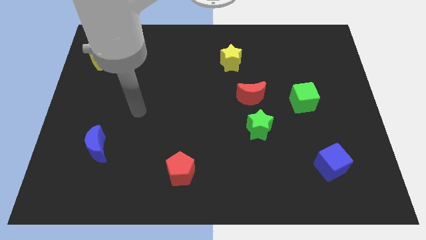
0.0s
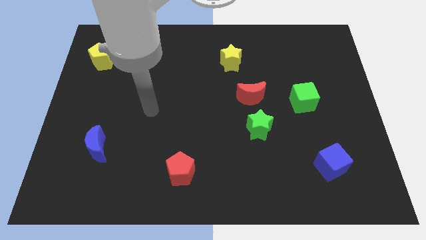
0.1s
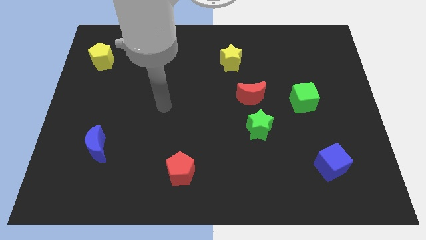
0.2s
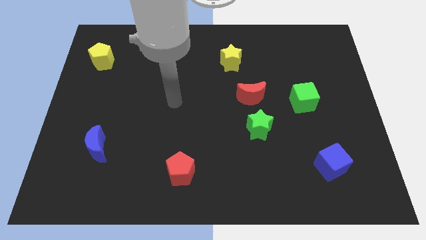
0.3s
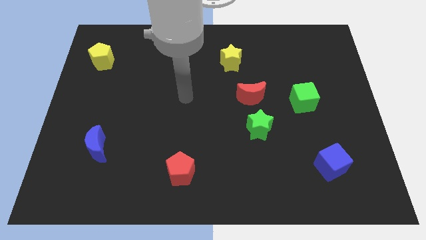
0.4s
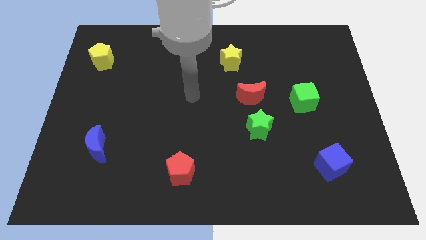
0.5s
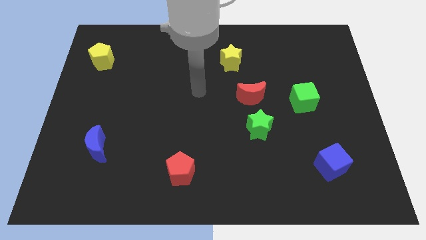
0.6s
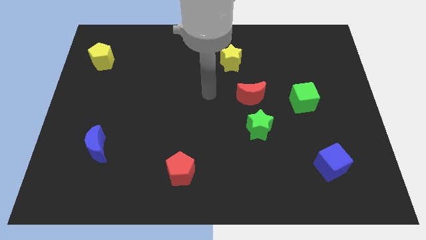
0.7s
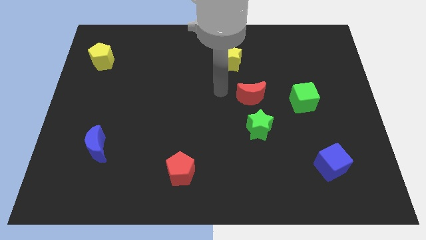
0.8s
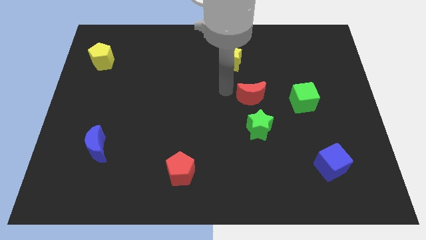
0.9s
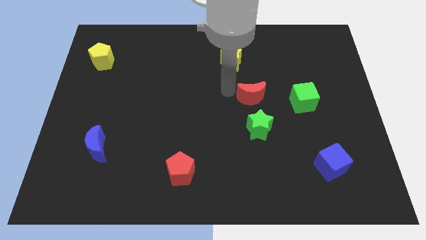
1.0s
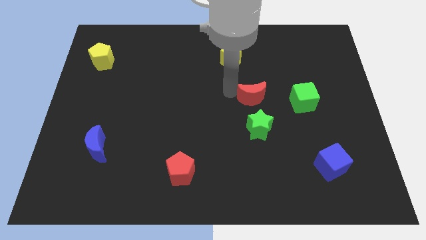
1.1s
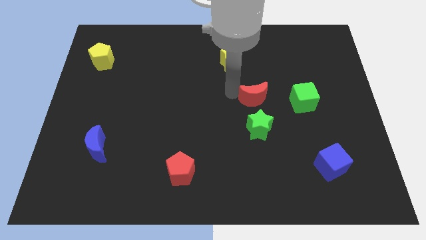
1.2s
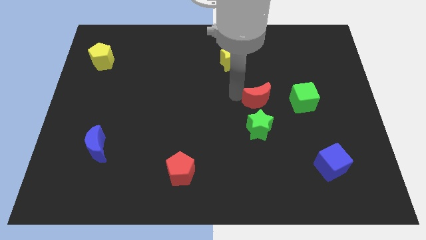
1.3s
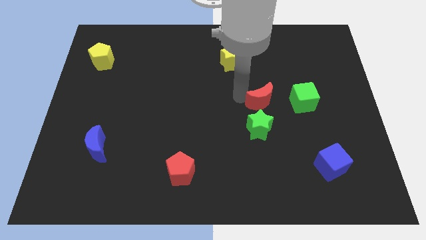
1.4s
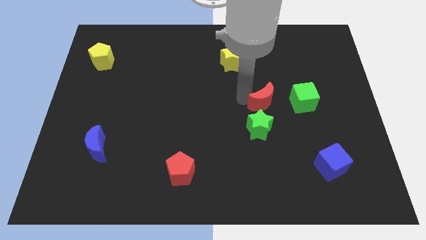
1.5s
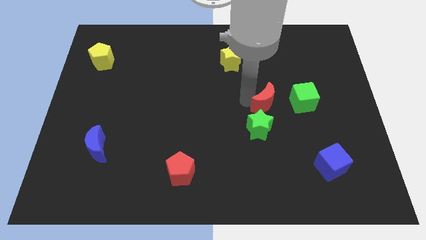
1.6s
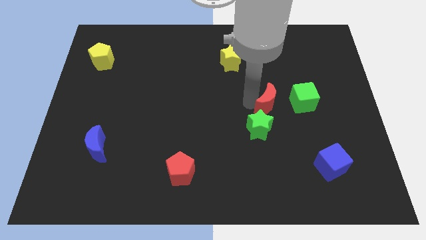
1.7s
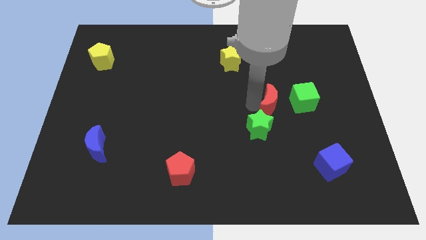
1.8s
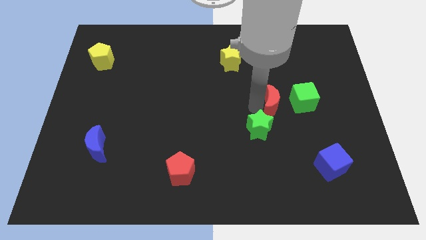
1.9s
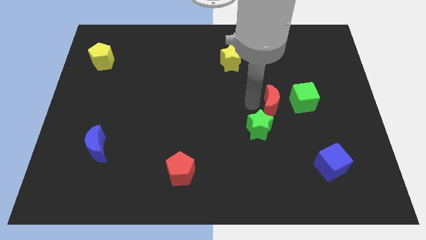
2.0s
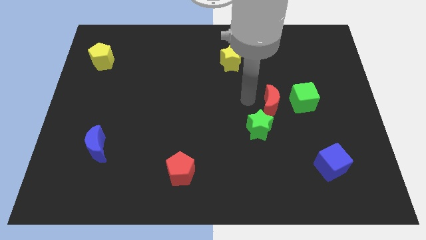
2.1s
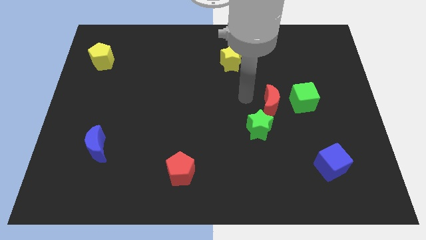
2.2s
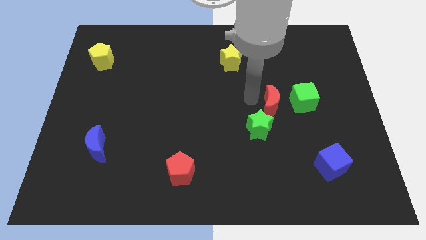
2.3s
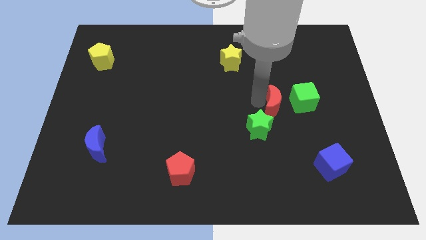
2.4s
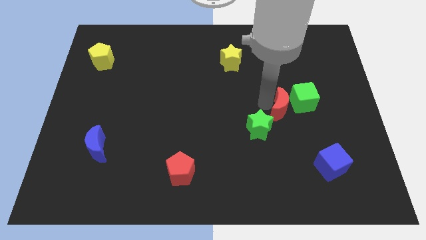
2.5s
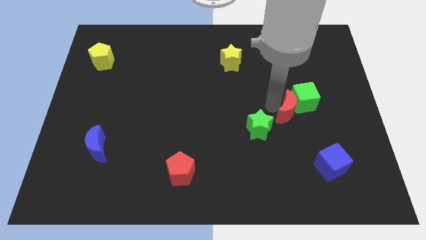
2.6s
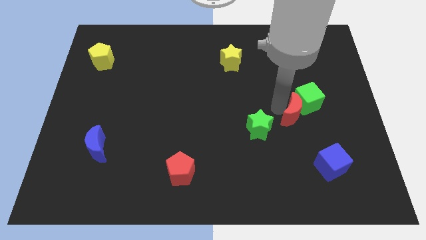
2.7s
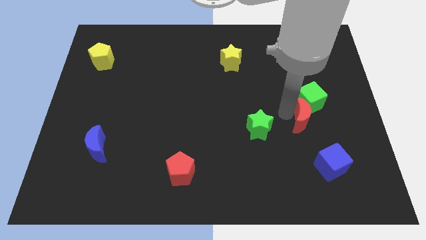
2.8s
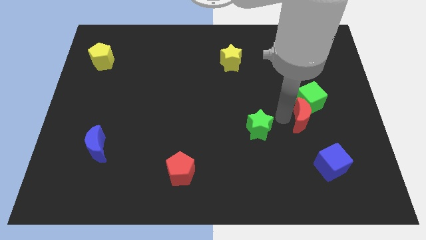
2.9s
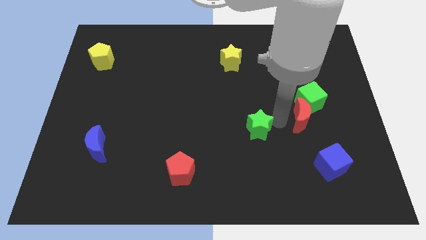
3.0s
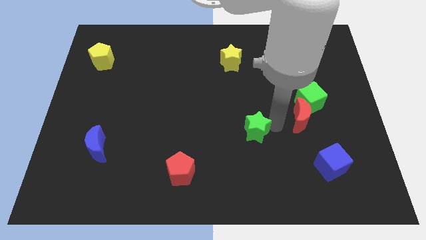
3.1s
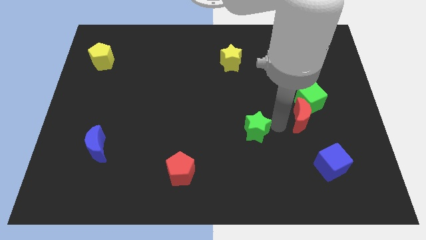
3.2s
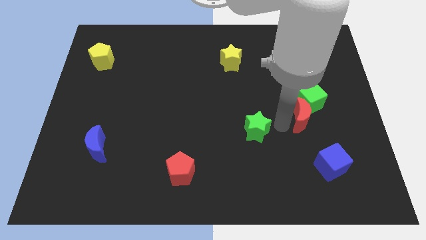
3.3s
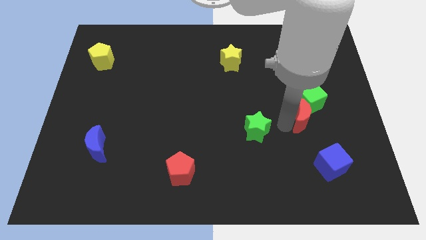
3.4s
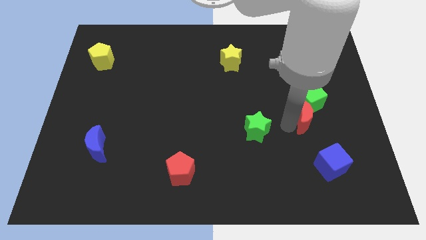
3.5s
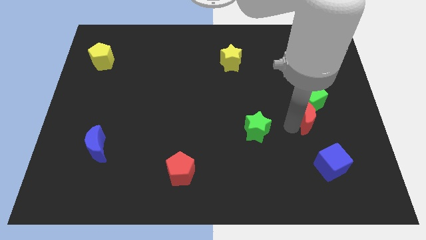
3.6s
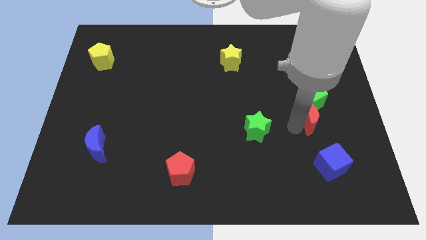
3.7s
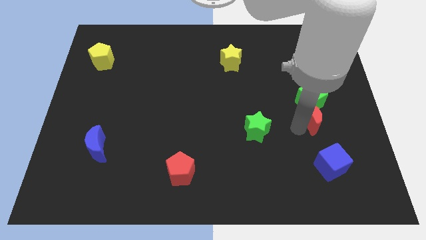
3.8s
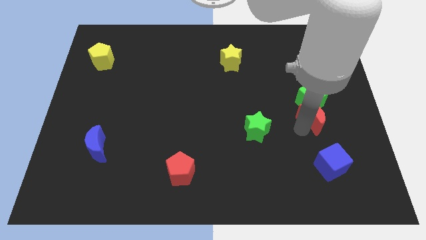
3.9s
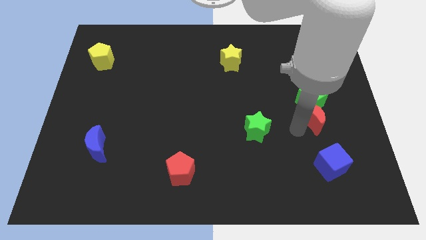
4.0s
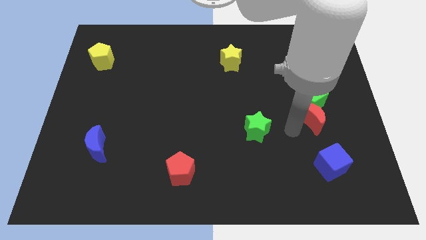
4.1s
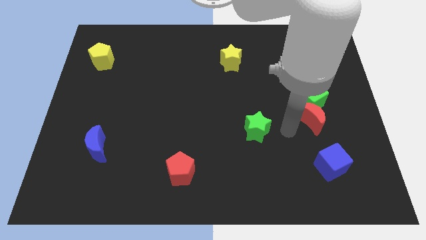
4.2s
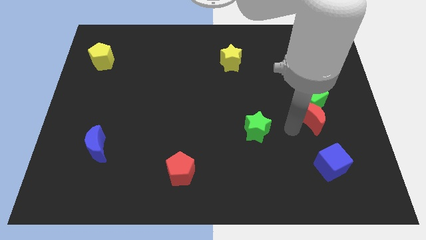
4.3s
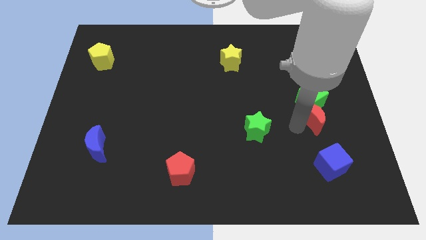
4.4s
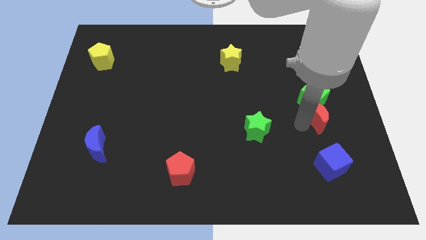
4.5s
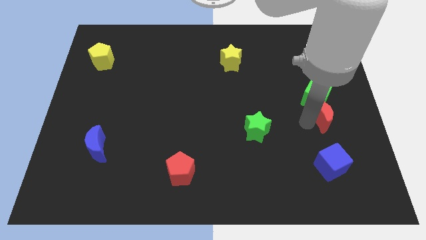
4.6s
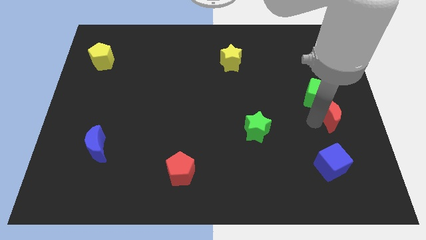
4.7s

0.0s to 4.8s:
push the red moon to the right side of the board

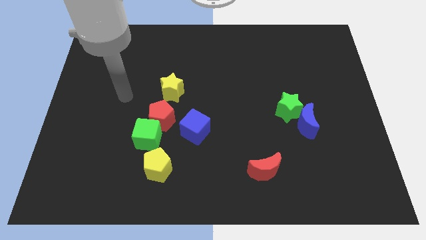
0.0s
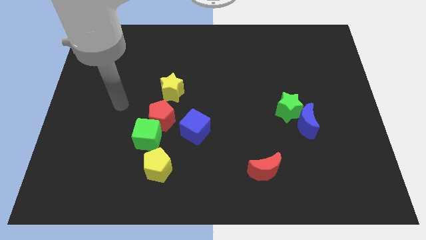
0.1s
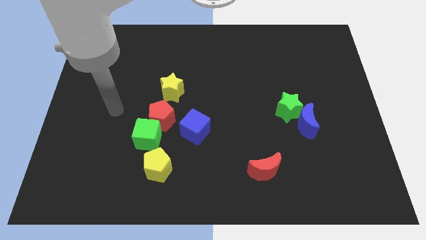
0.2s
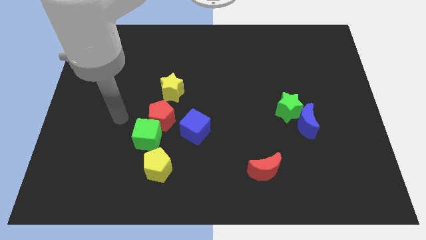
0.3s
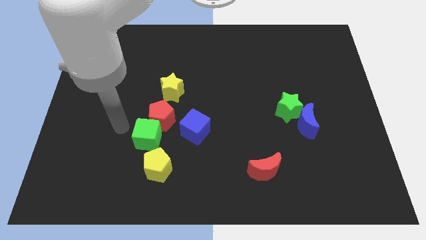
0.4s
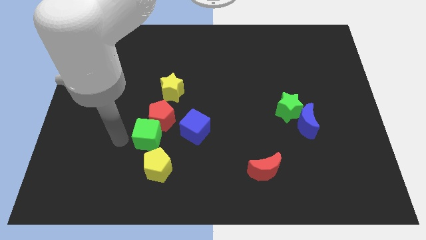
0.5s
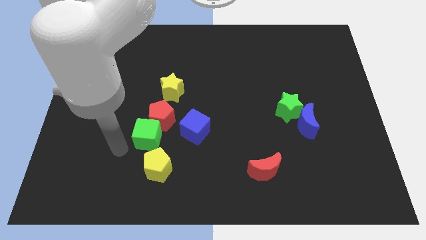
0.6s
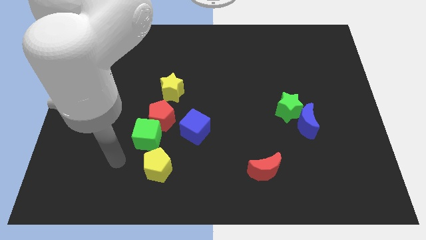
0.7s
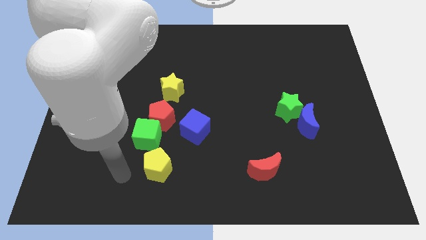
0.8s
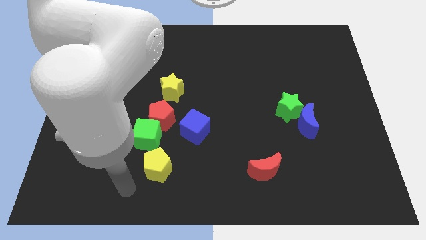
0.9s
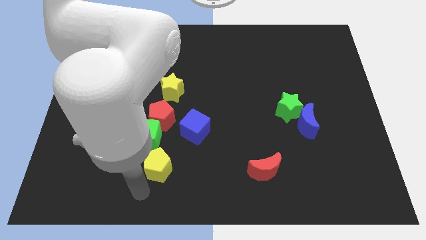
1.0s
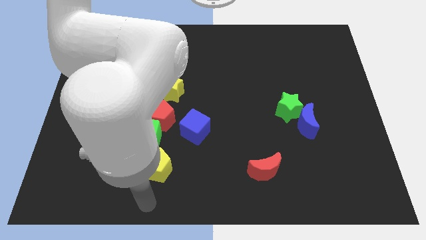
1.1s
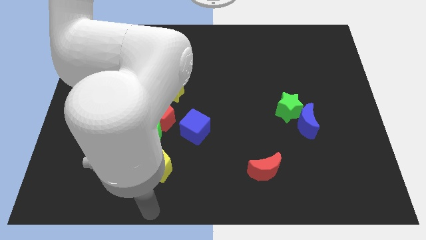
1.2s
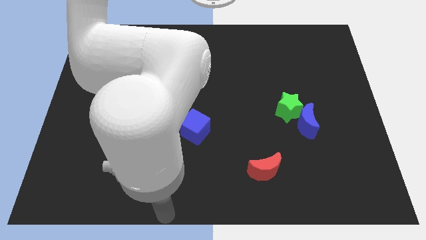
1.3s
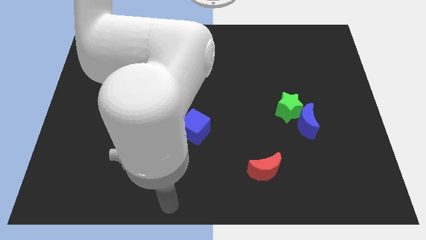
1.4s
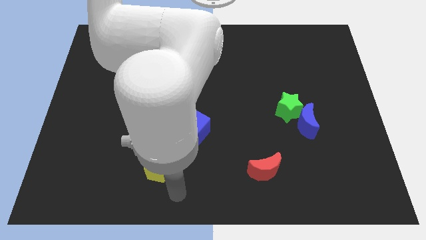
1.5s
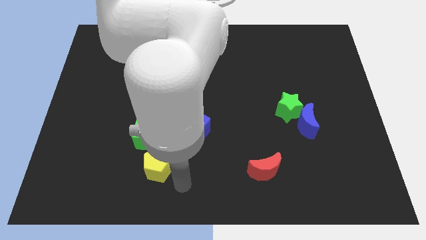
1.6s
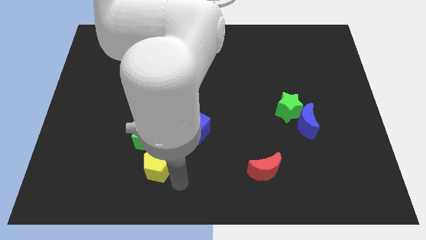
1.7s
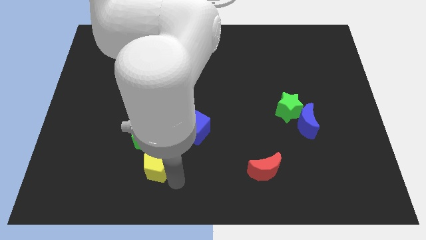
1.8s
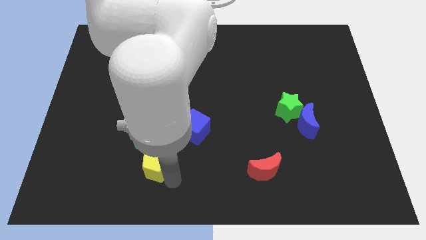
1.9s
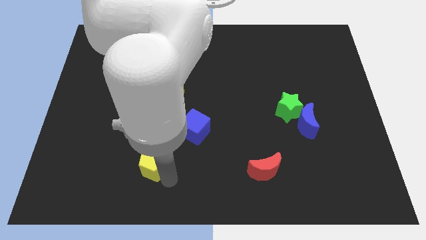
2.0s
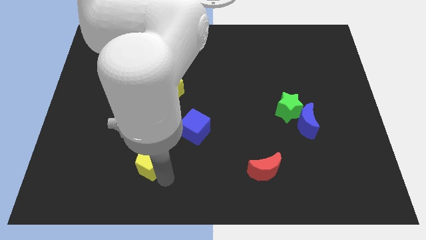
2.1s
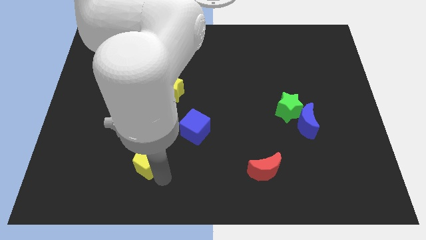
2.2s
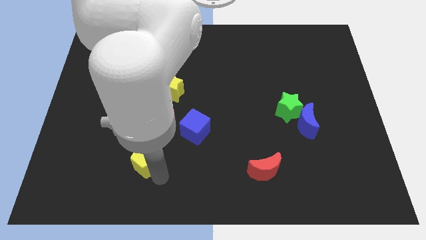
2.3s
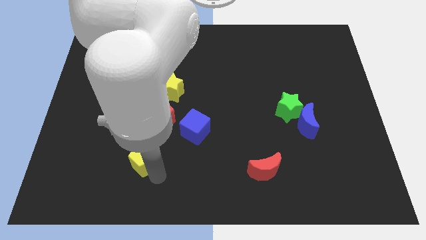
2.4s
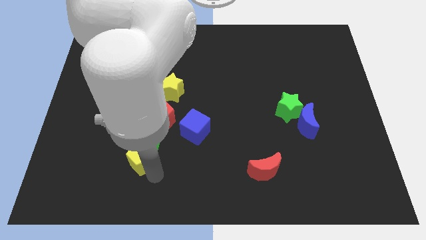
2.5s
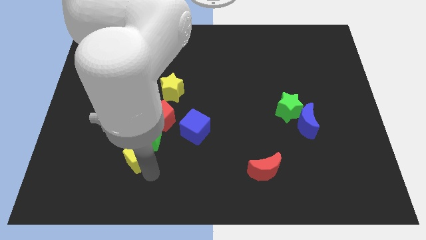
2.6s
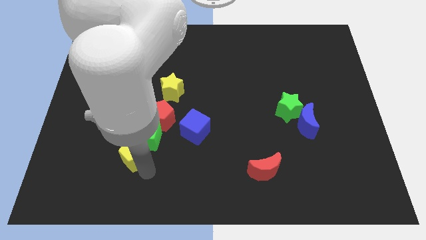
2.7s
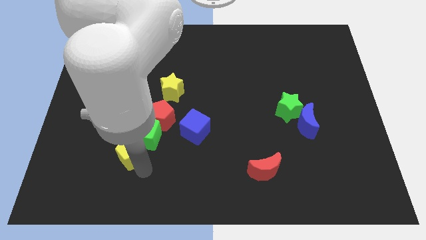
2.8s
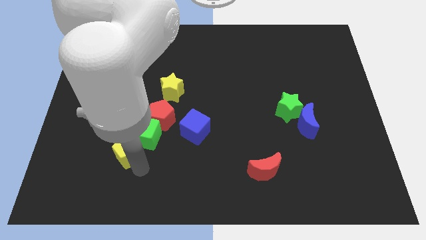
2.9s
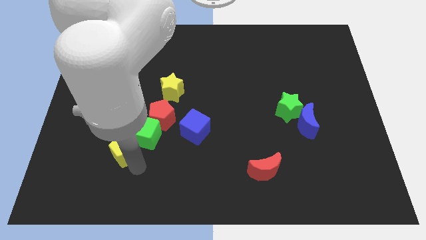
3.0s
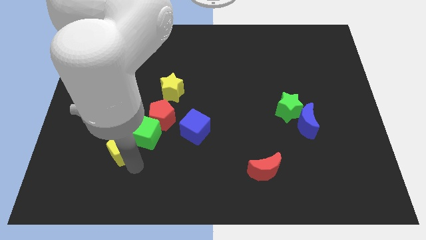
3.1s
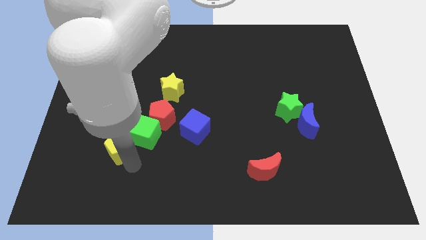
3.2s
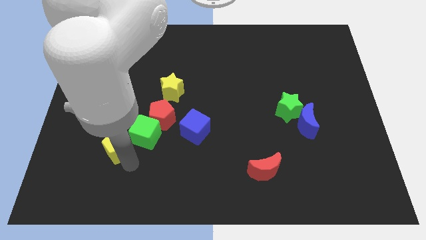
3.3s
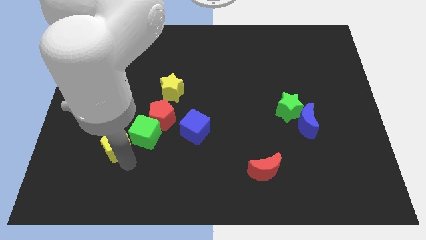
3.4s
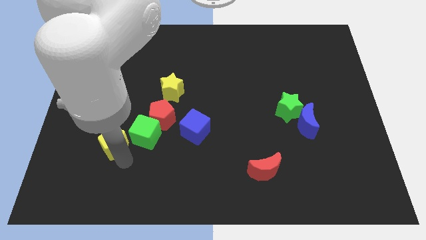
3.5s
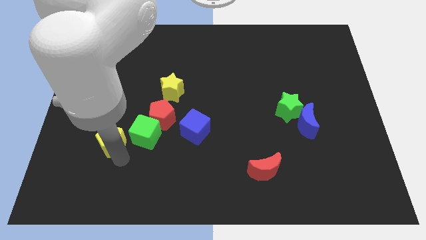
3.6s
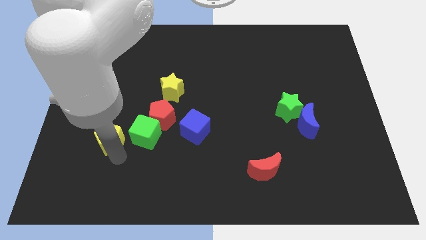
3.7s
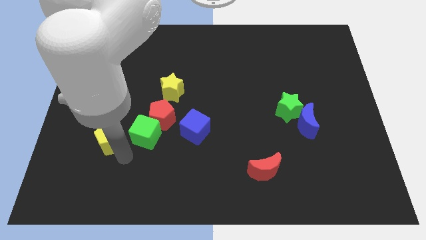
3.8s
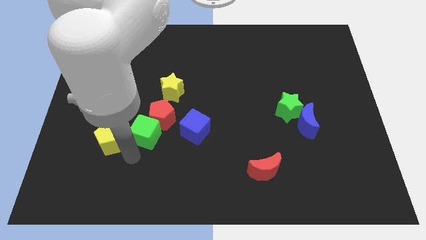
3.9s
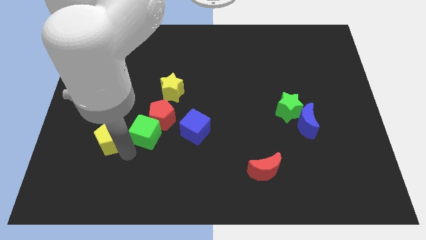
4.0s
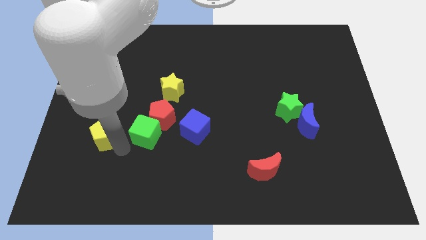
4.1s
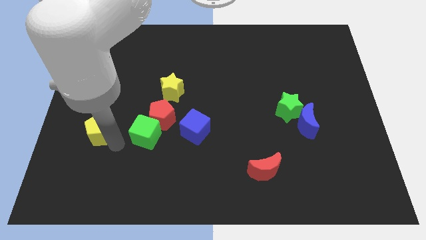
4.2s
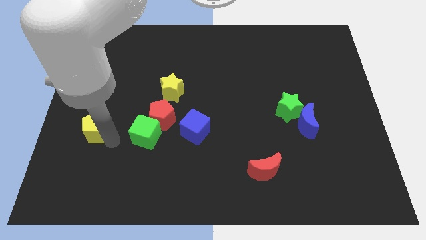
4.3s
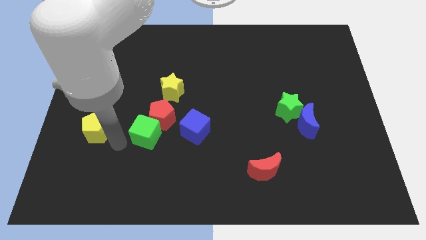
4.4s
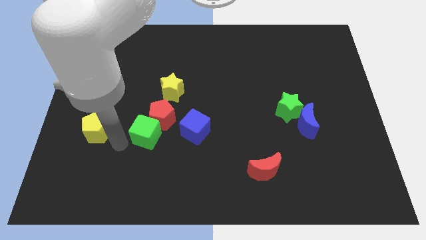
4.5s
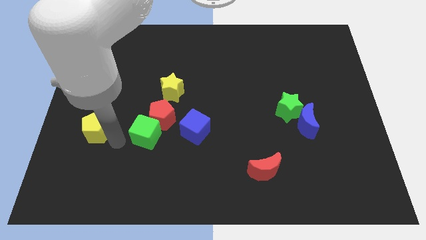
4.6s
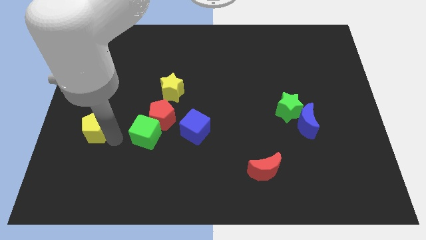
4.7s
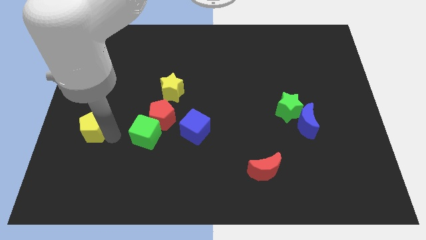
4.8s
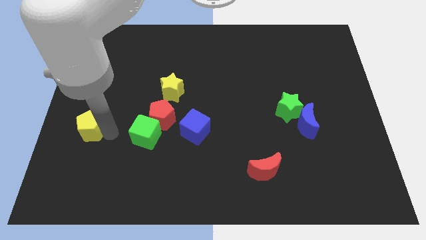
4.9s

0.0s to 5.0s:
move the yellow pentagon to the left side
